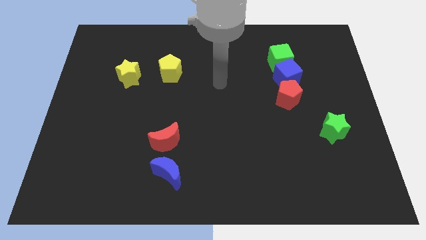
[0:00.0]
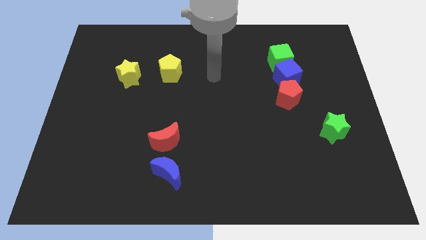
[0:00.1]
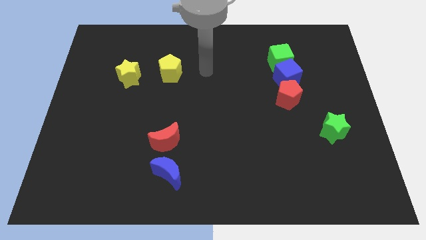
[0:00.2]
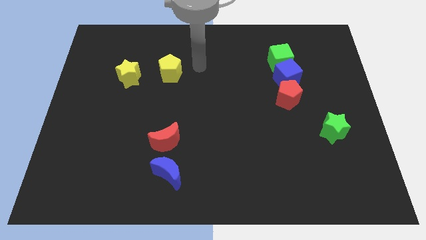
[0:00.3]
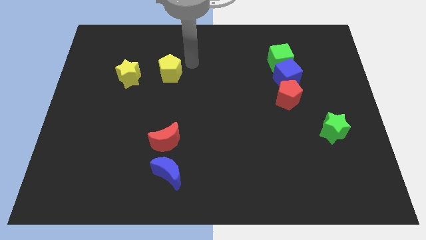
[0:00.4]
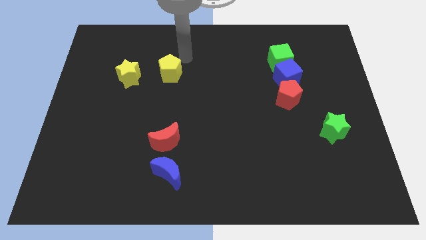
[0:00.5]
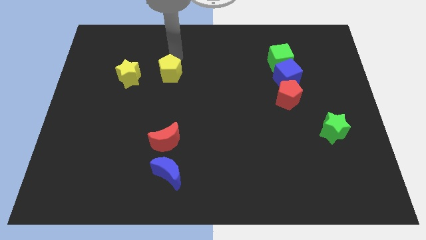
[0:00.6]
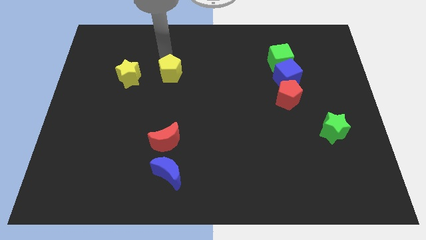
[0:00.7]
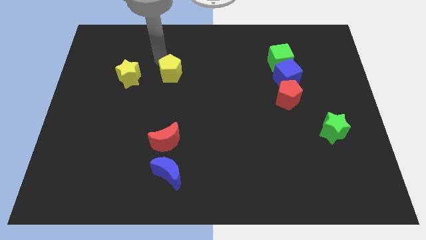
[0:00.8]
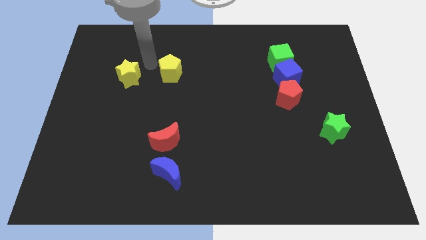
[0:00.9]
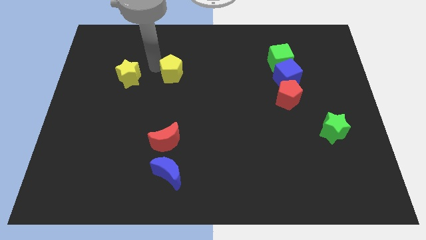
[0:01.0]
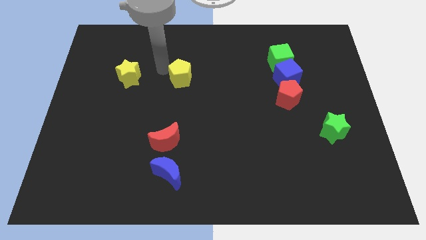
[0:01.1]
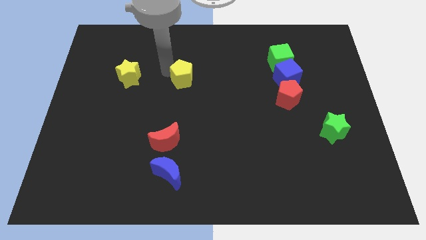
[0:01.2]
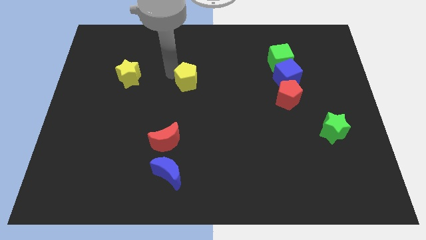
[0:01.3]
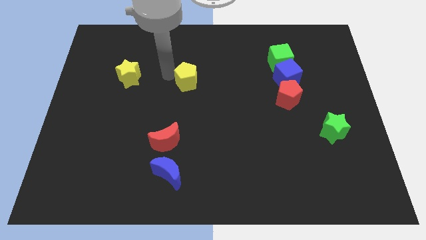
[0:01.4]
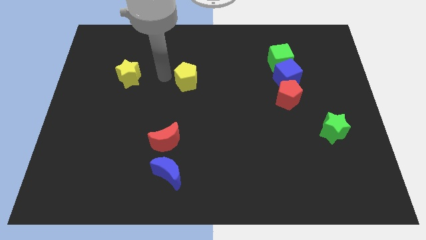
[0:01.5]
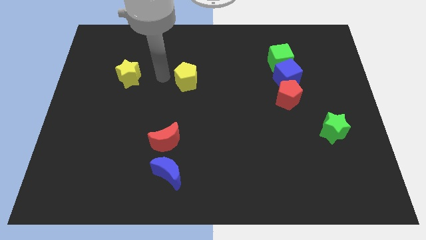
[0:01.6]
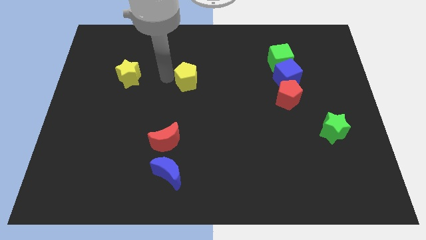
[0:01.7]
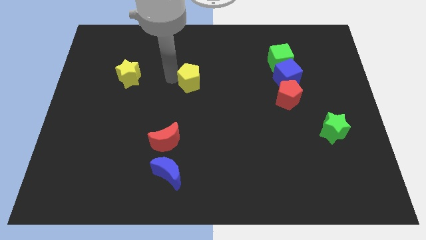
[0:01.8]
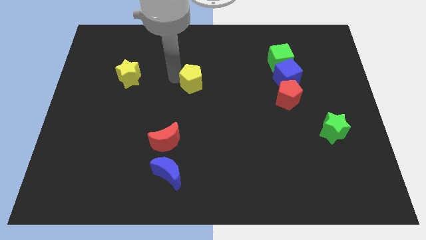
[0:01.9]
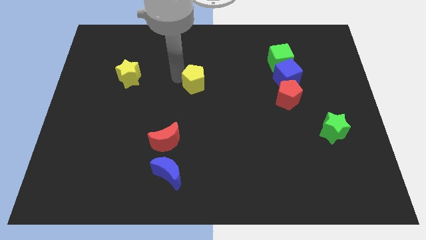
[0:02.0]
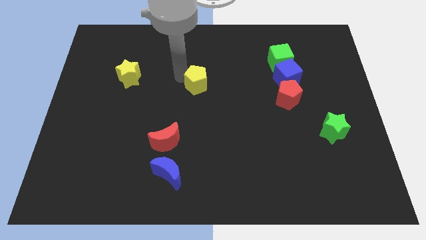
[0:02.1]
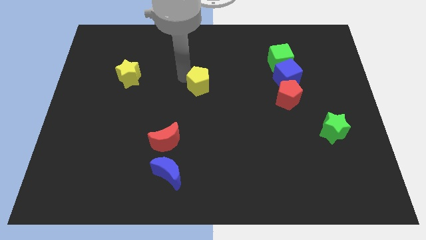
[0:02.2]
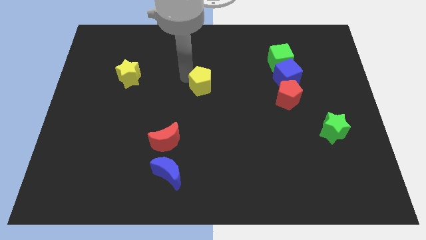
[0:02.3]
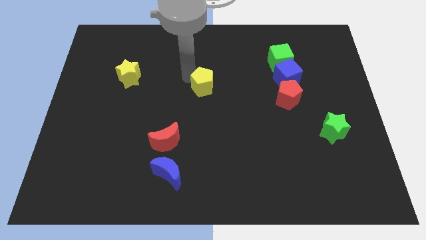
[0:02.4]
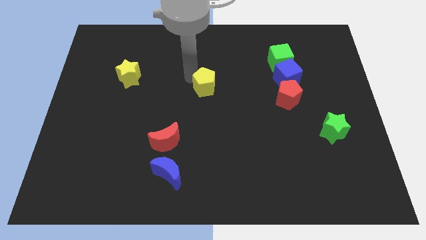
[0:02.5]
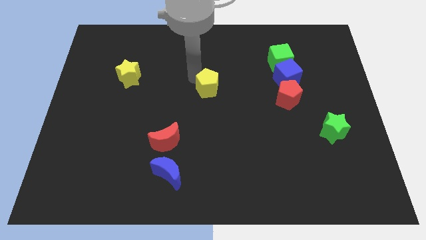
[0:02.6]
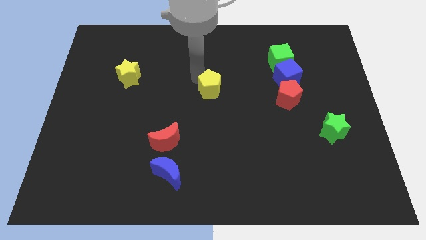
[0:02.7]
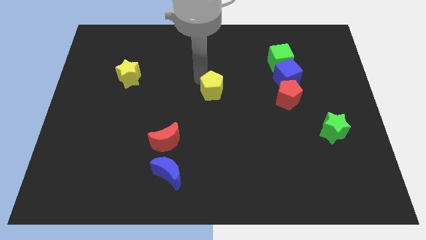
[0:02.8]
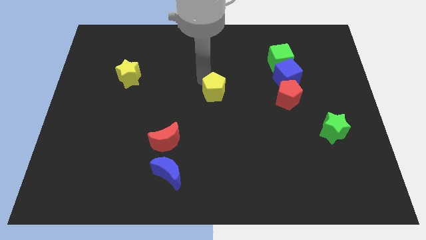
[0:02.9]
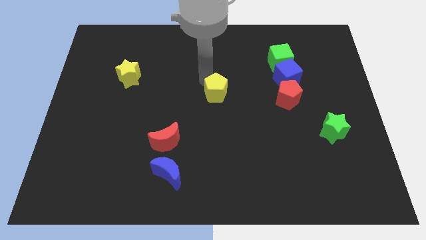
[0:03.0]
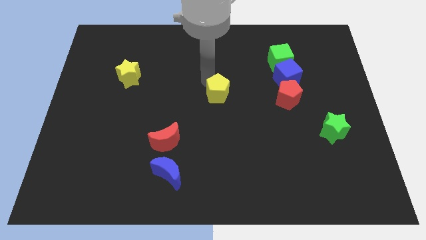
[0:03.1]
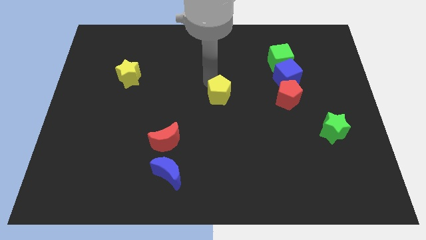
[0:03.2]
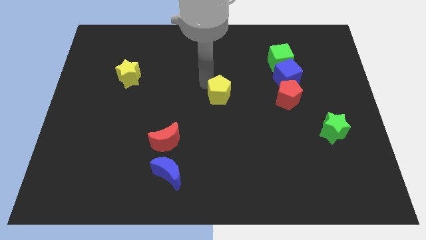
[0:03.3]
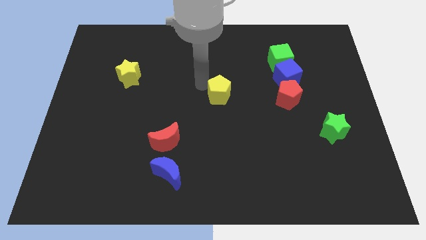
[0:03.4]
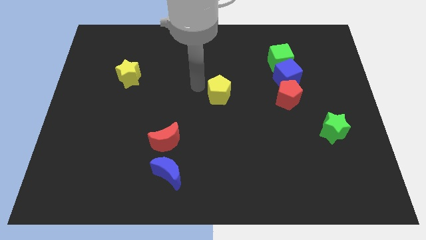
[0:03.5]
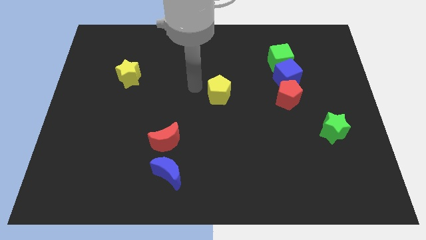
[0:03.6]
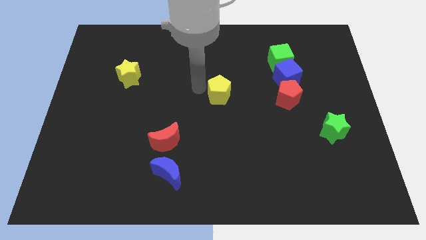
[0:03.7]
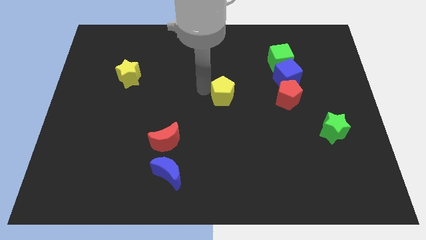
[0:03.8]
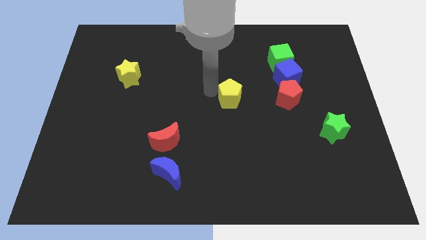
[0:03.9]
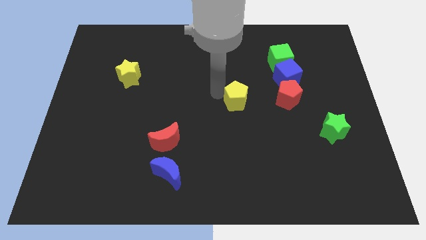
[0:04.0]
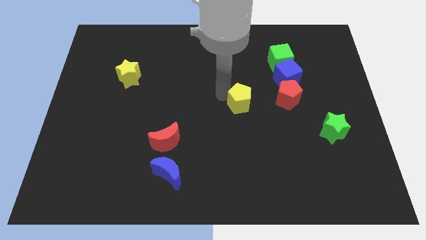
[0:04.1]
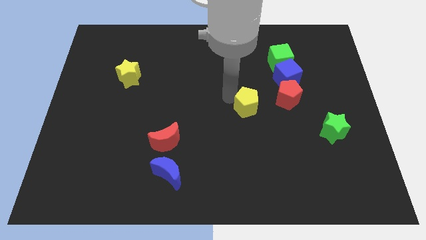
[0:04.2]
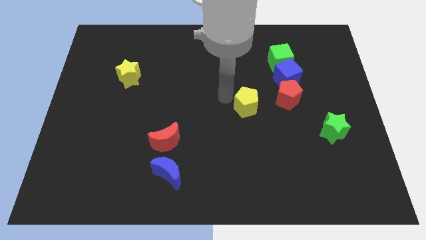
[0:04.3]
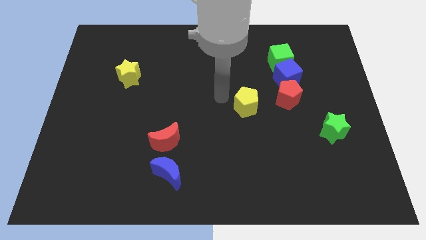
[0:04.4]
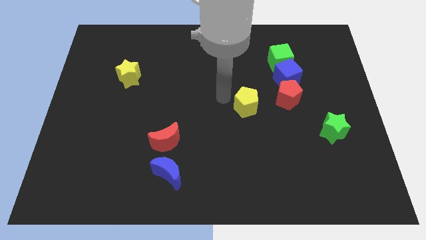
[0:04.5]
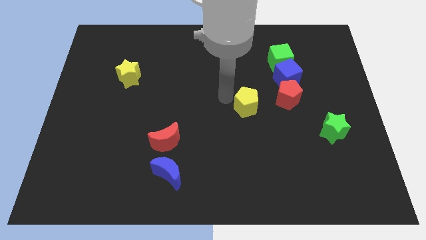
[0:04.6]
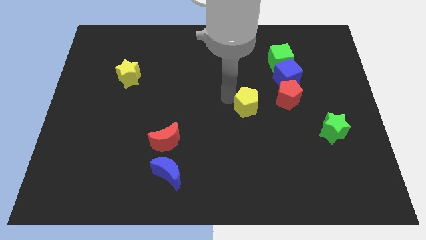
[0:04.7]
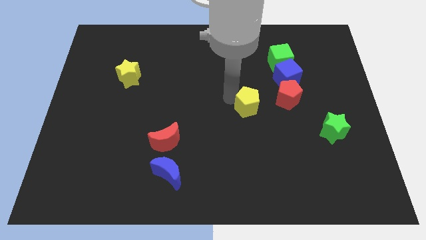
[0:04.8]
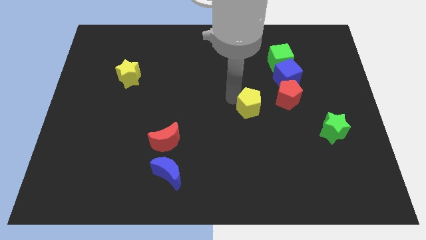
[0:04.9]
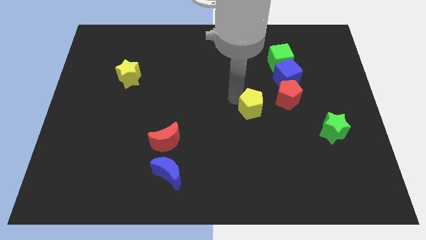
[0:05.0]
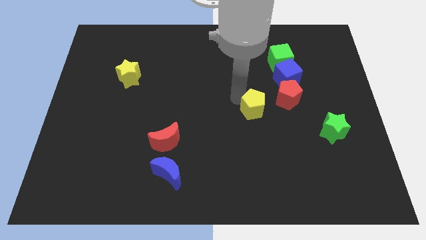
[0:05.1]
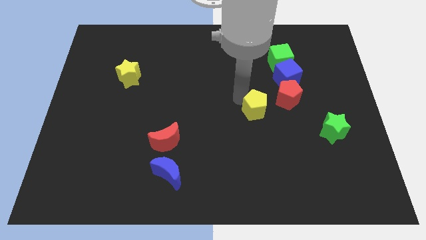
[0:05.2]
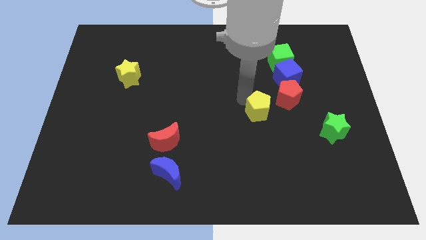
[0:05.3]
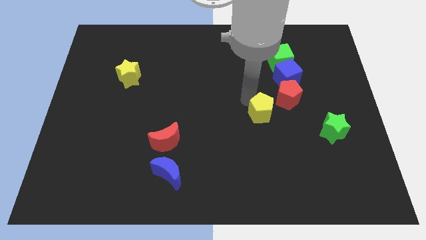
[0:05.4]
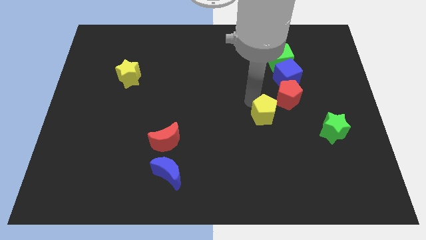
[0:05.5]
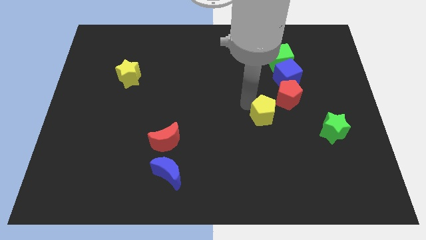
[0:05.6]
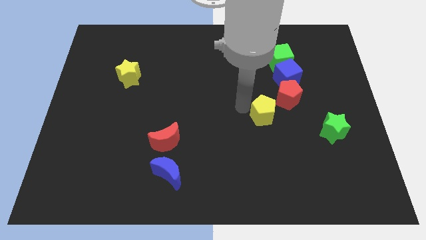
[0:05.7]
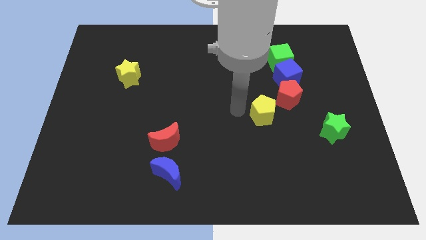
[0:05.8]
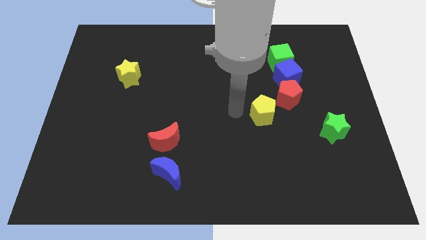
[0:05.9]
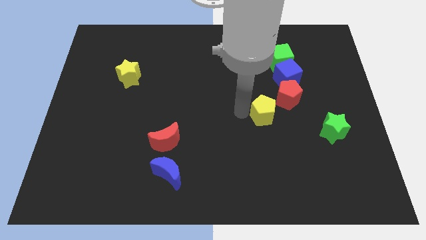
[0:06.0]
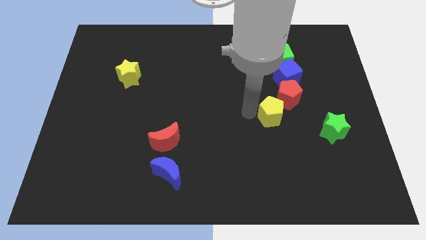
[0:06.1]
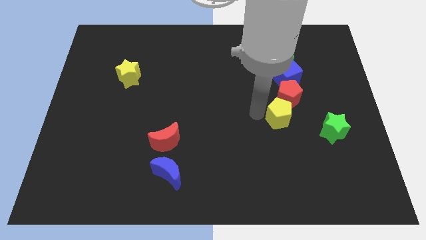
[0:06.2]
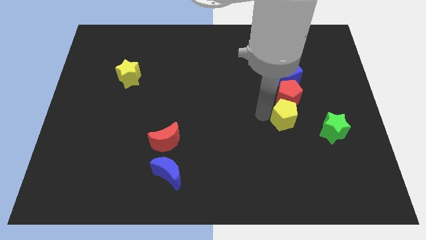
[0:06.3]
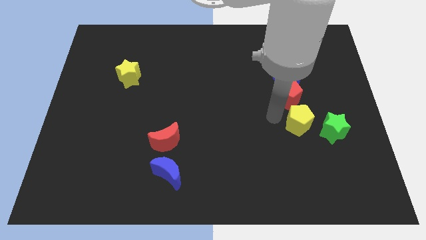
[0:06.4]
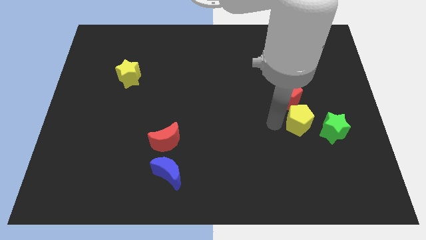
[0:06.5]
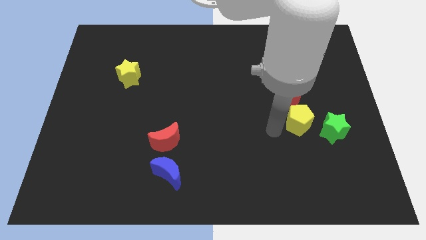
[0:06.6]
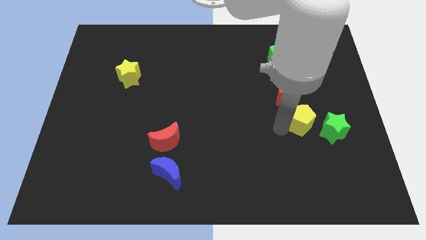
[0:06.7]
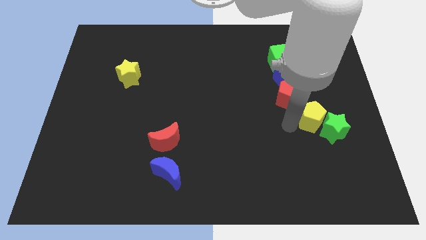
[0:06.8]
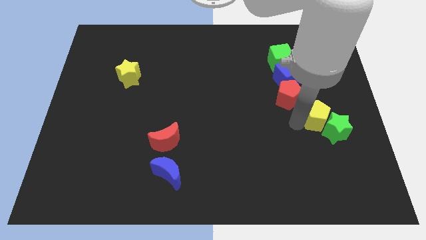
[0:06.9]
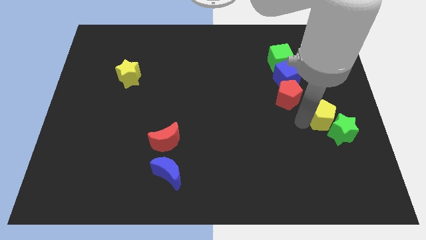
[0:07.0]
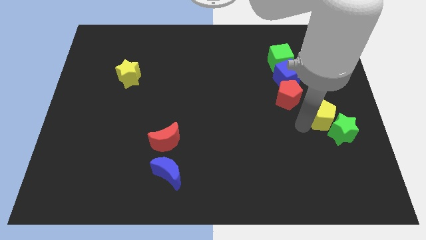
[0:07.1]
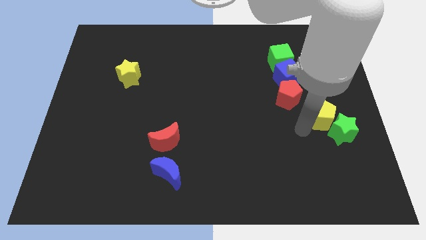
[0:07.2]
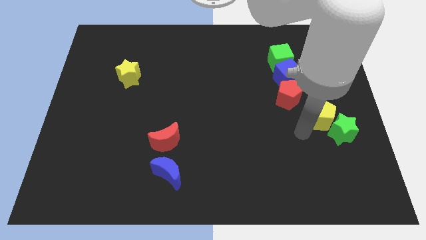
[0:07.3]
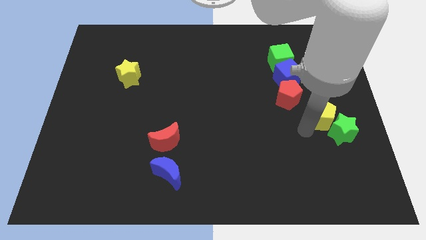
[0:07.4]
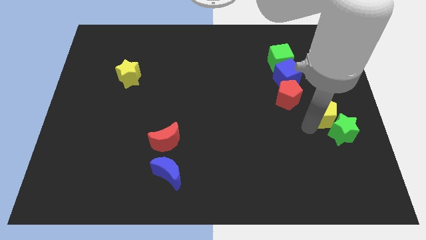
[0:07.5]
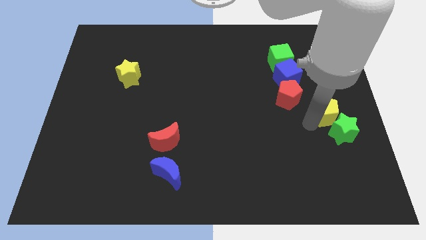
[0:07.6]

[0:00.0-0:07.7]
put the yellow pentagon to the right side
